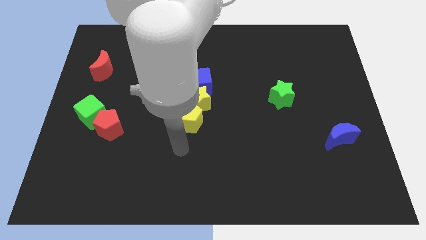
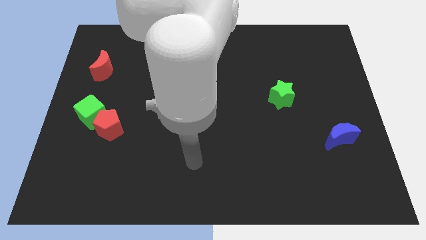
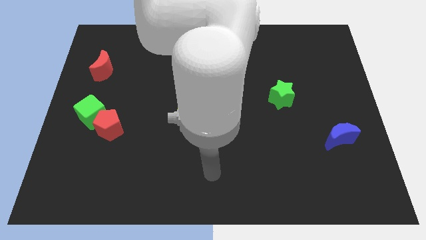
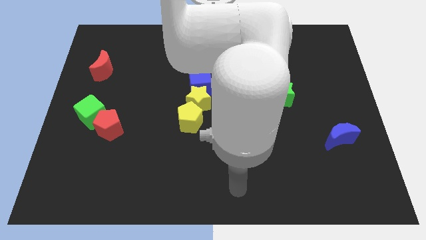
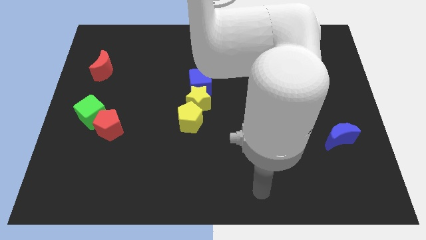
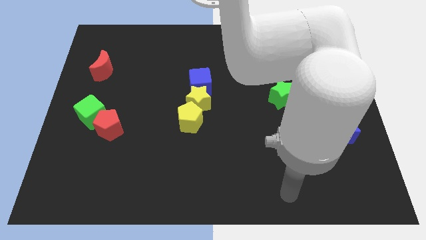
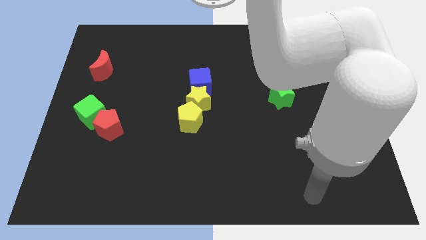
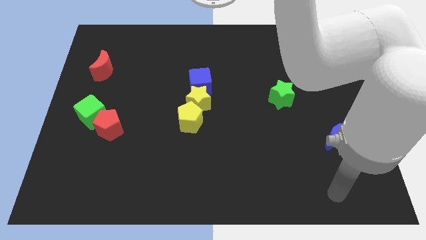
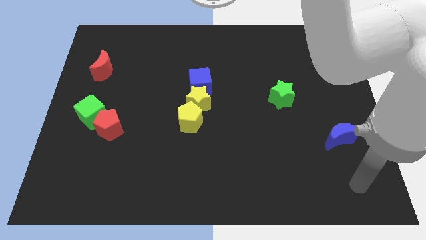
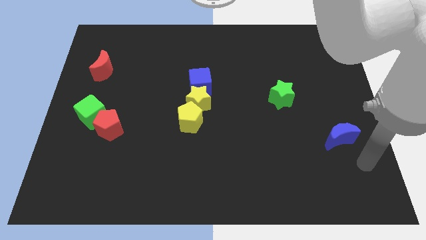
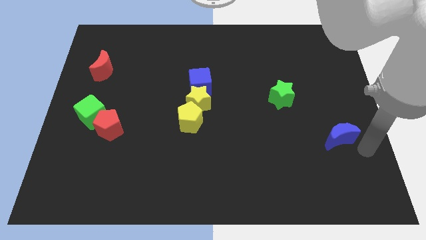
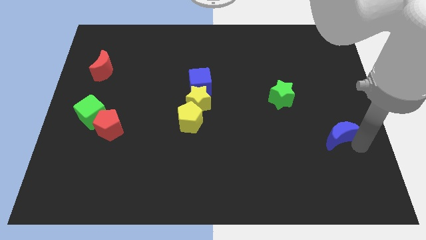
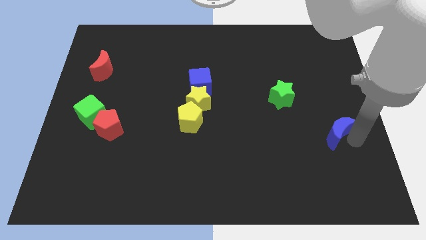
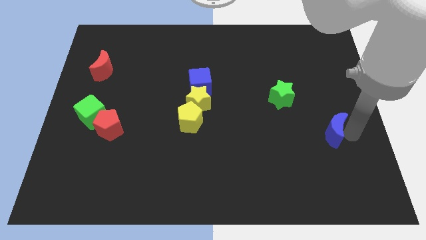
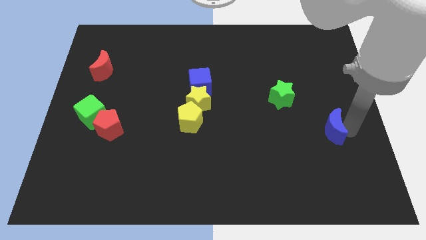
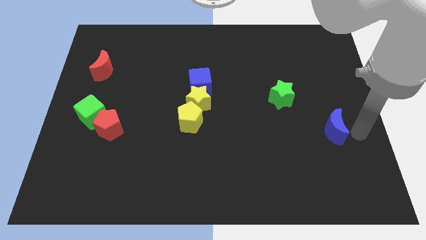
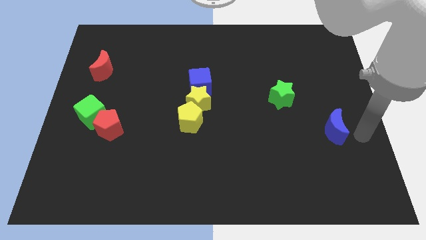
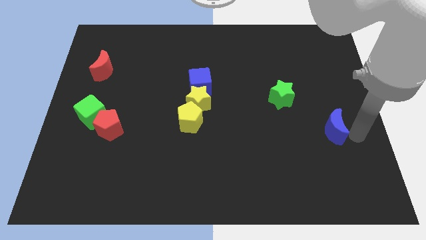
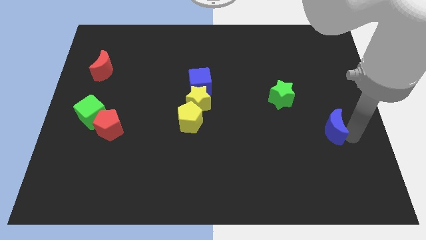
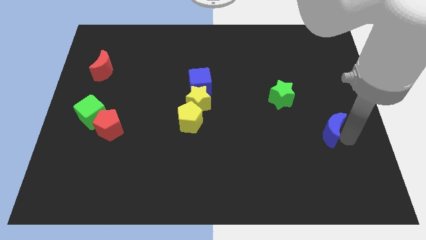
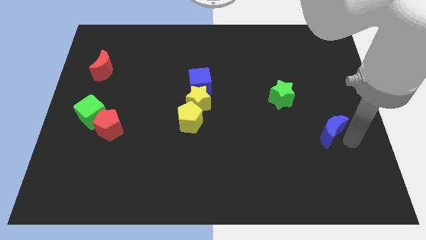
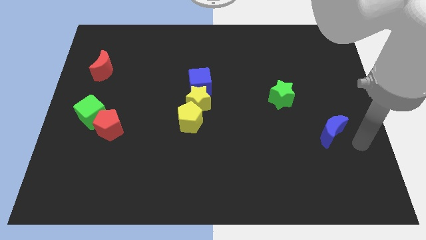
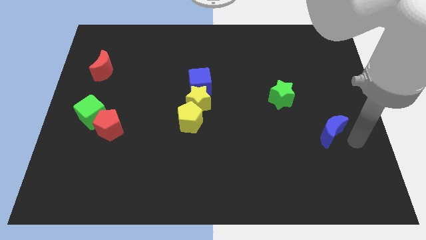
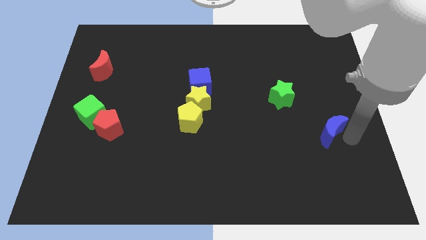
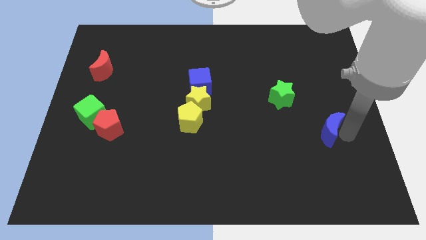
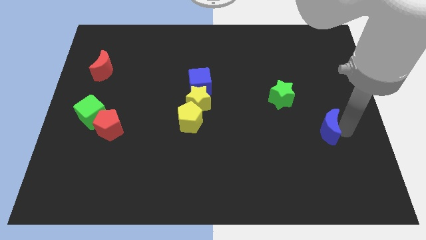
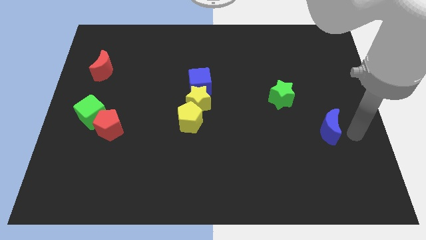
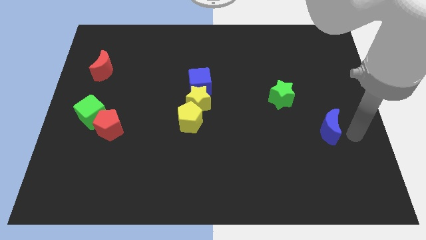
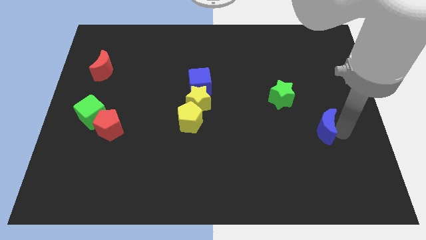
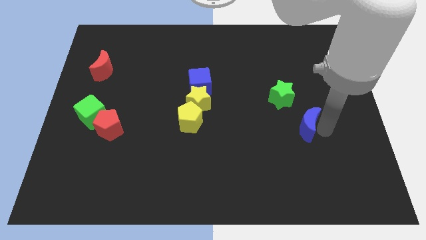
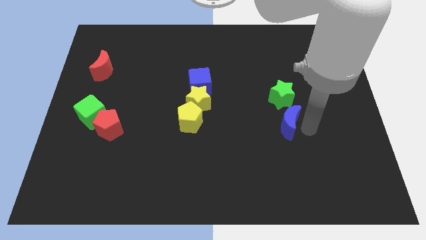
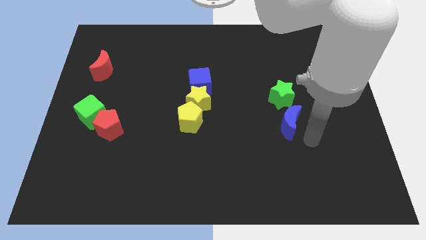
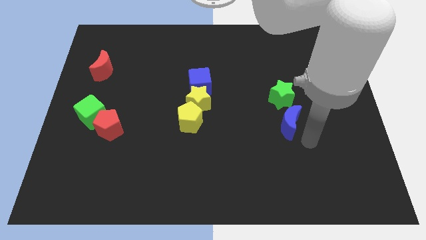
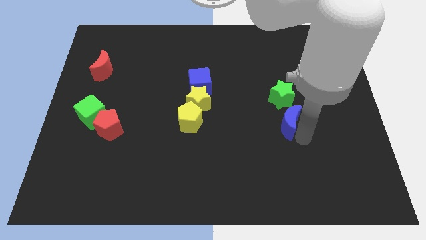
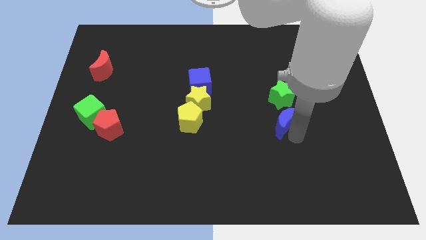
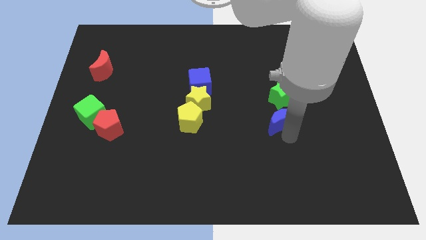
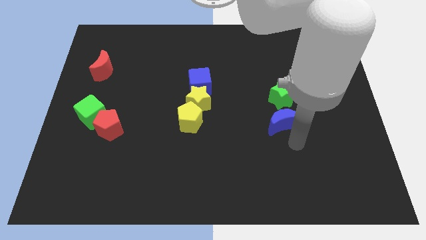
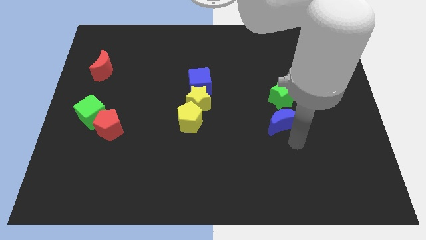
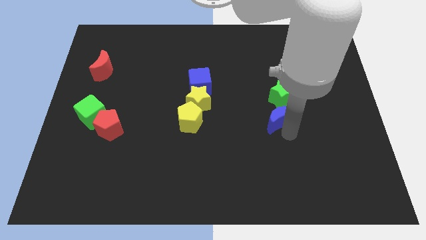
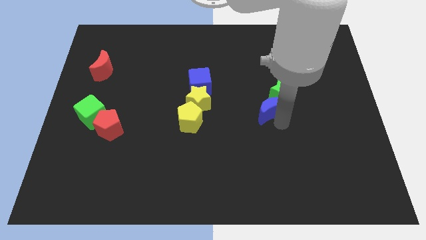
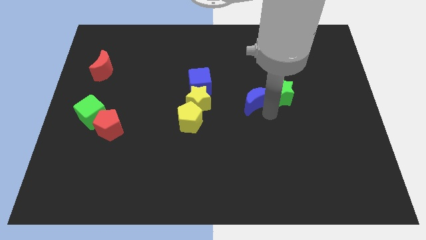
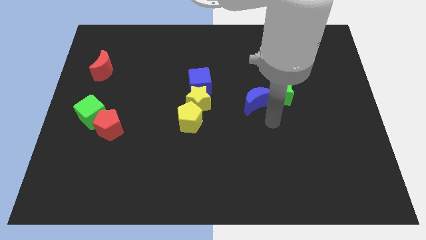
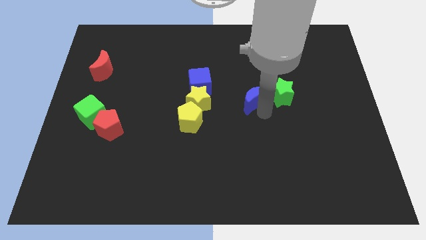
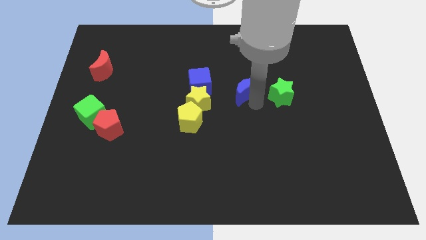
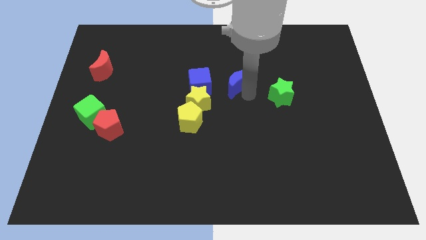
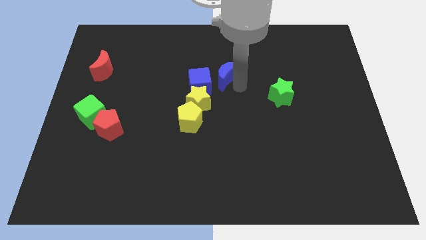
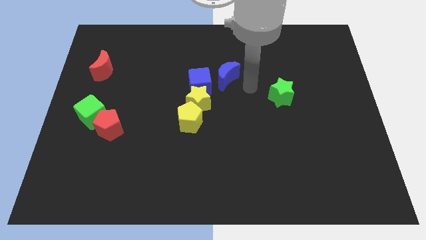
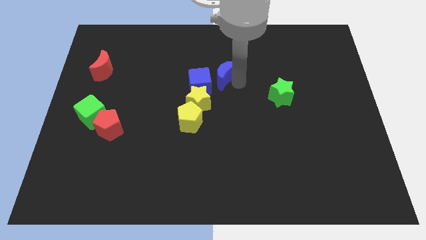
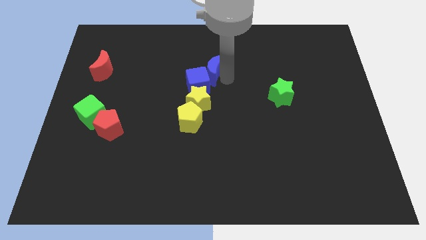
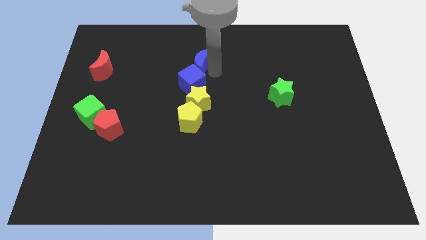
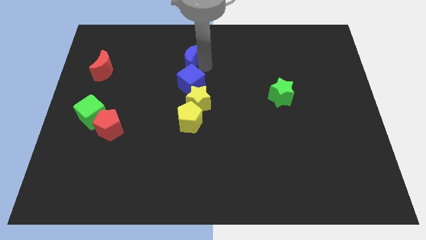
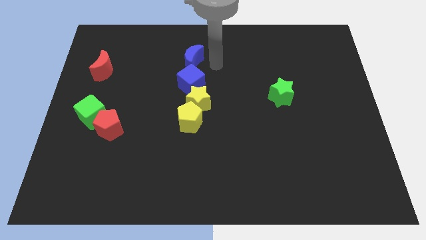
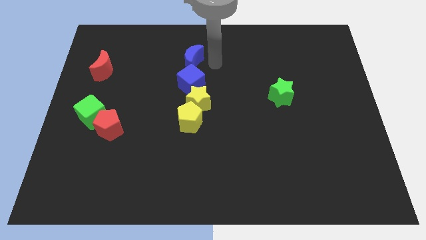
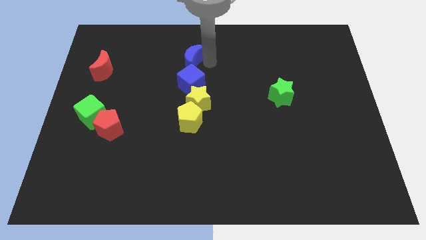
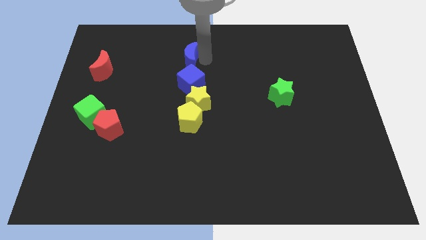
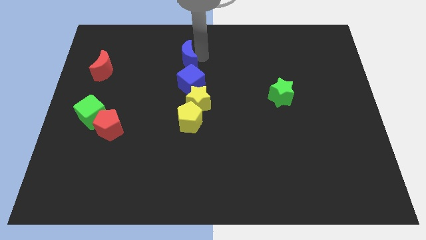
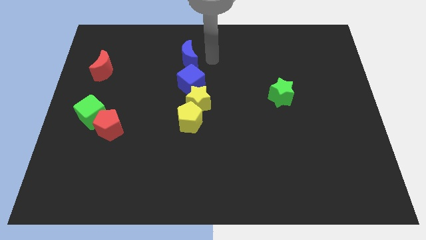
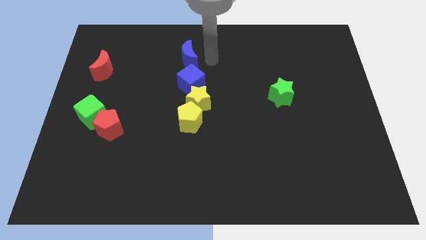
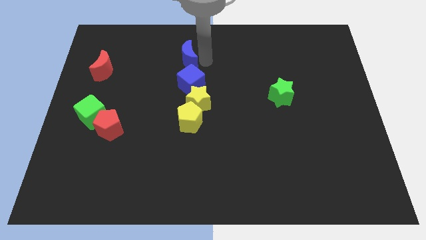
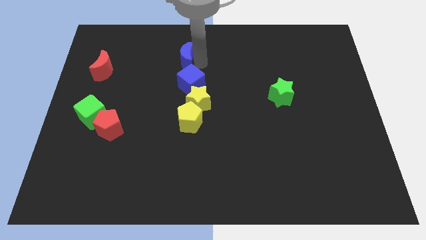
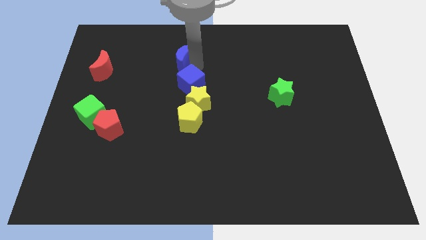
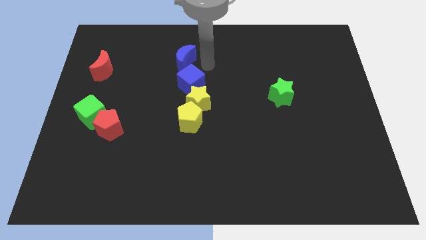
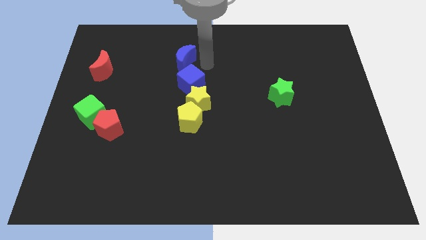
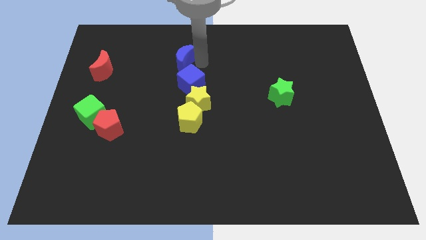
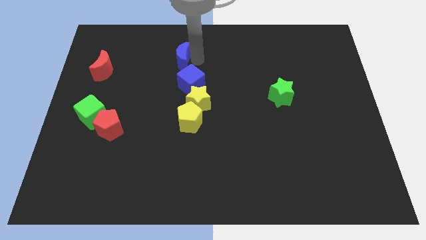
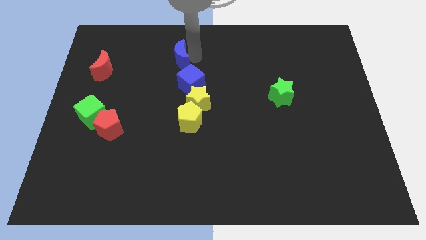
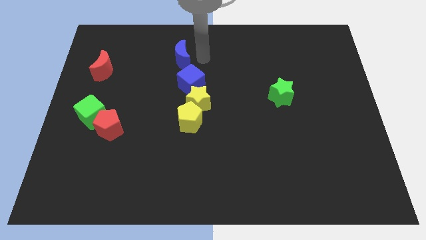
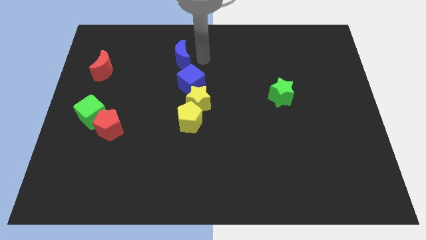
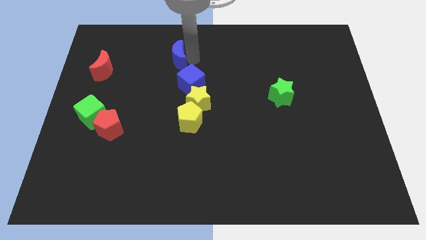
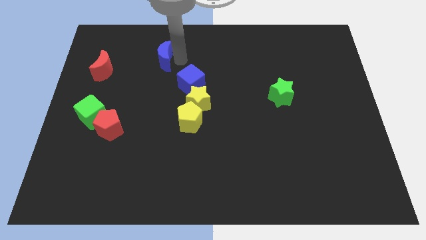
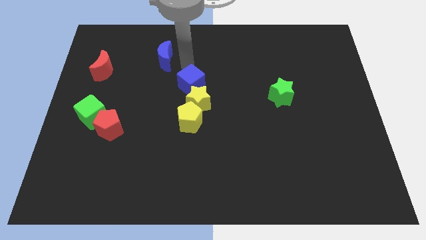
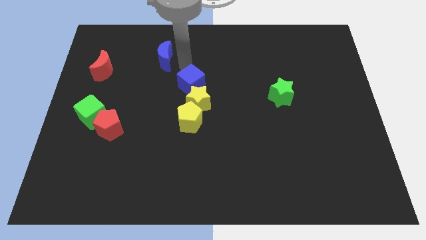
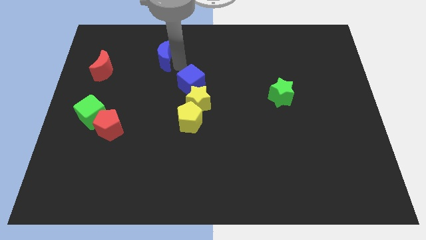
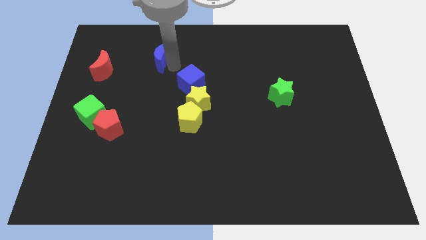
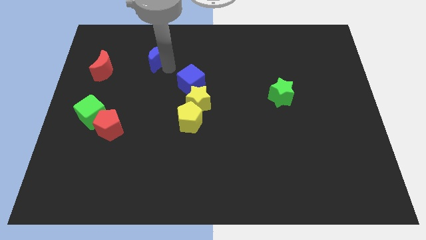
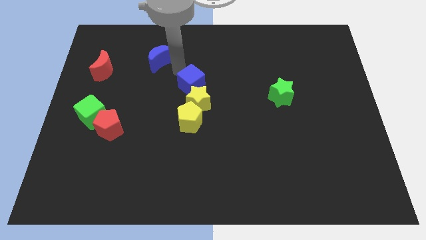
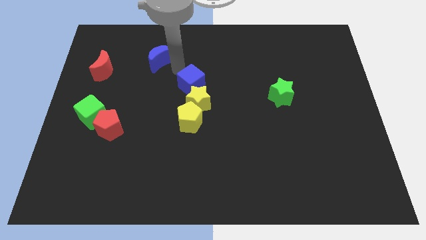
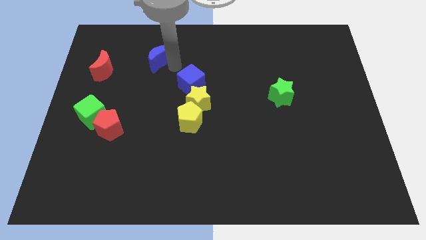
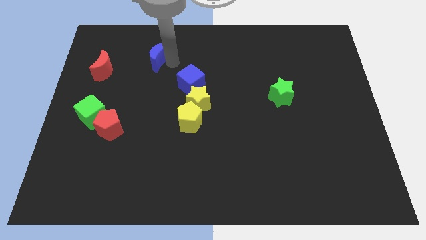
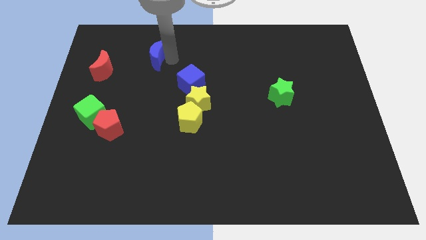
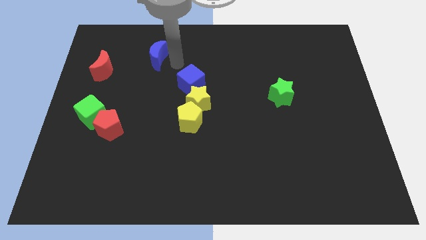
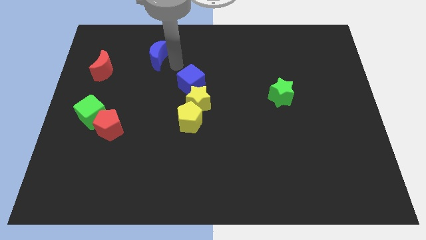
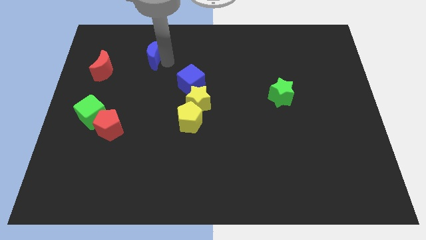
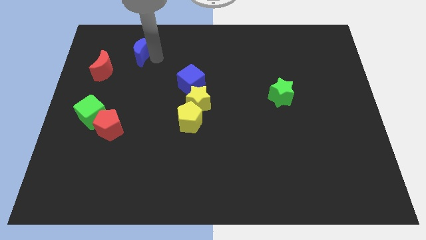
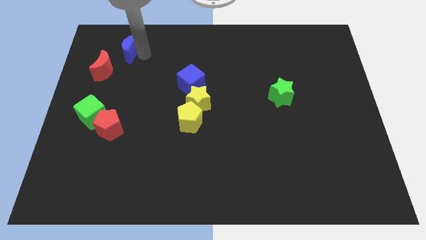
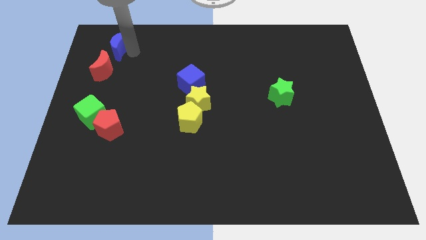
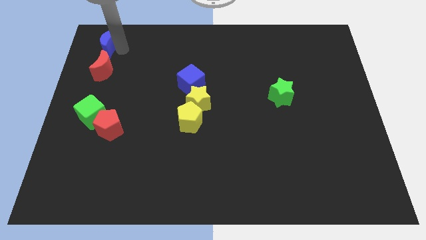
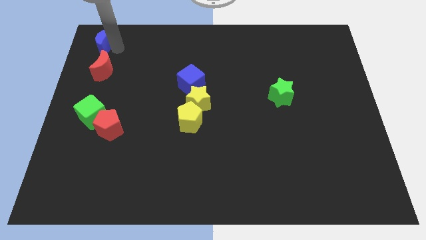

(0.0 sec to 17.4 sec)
push the blue moon to the top left of the board
